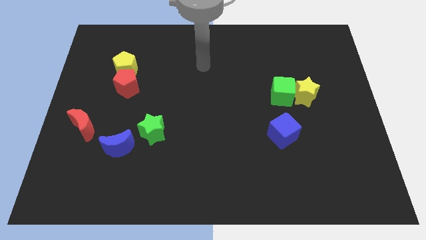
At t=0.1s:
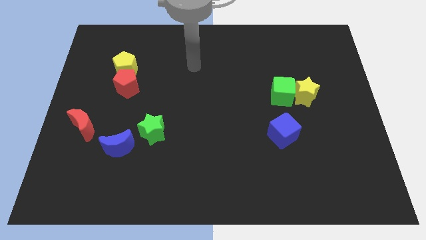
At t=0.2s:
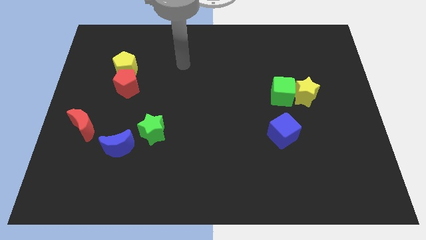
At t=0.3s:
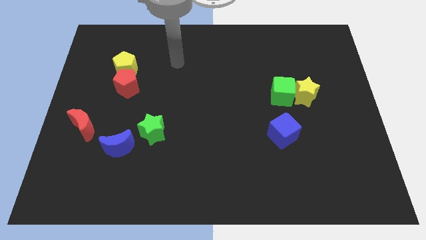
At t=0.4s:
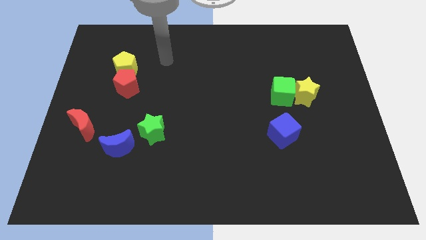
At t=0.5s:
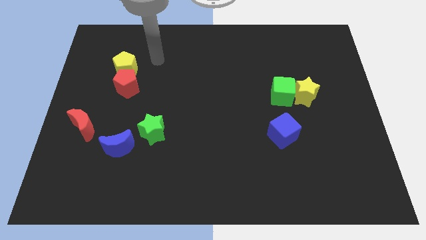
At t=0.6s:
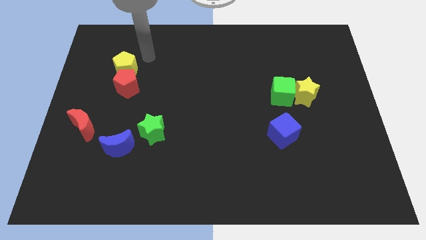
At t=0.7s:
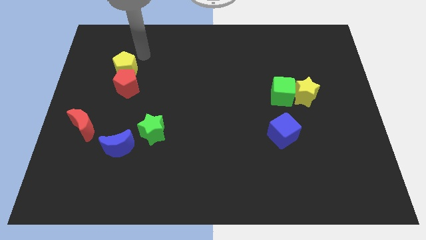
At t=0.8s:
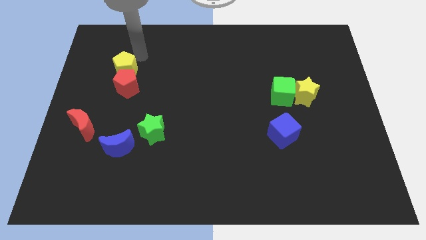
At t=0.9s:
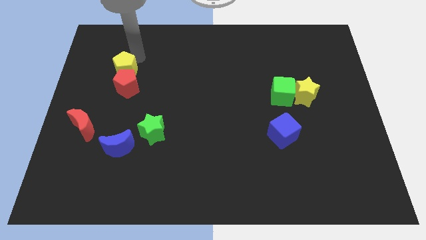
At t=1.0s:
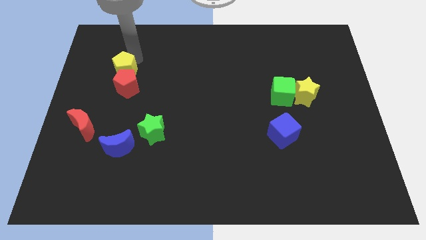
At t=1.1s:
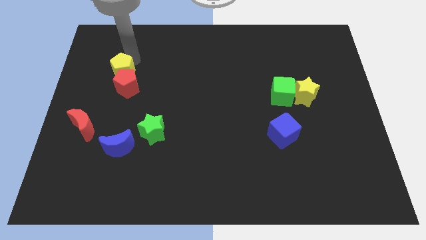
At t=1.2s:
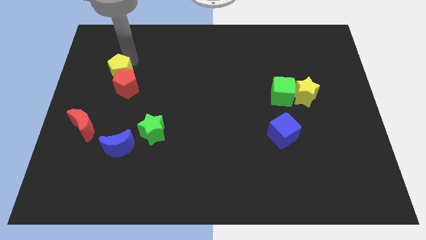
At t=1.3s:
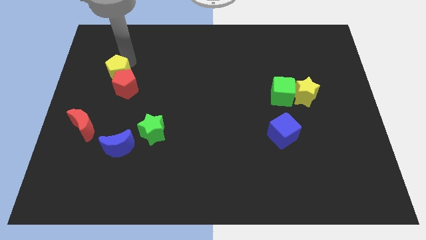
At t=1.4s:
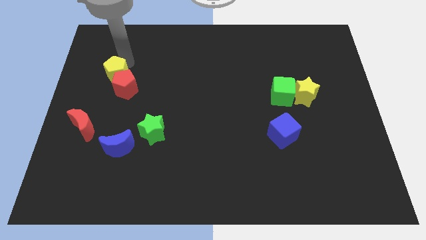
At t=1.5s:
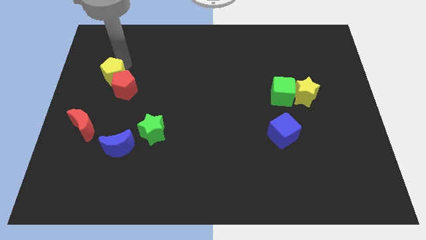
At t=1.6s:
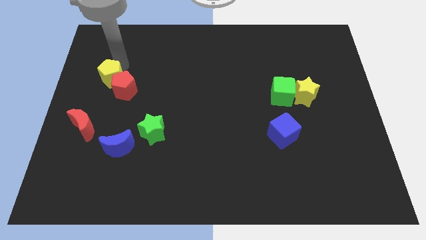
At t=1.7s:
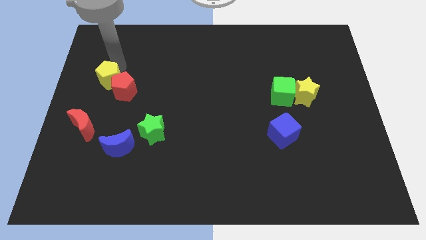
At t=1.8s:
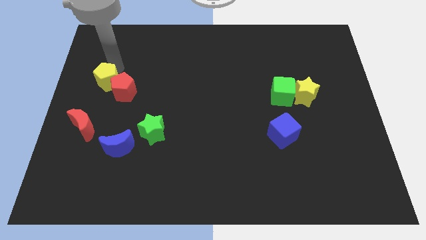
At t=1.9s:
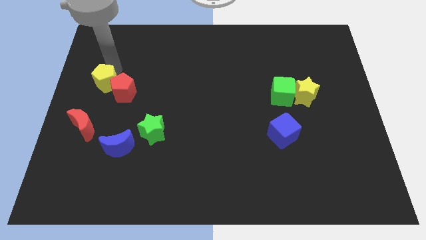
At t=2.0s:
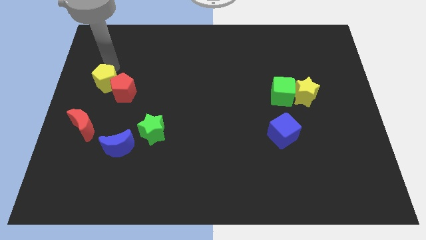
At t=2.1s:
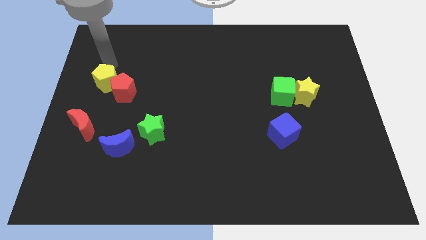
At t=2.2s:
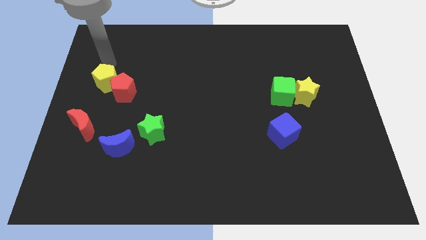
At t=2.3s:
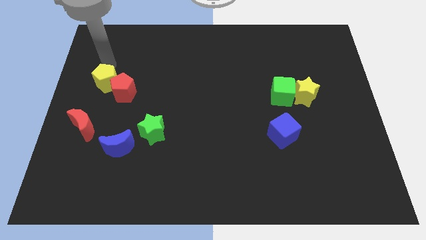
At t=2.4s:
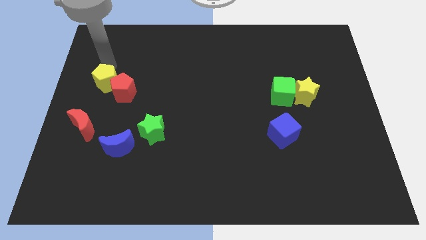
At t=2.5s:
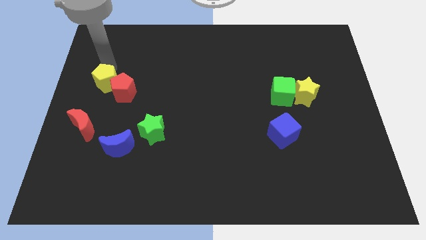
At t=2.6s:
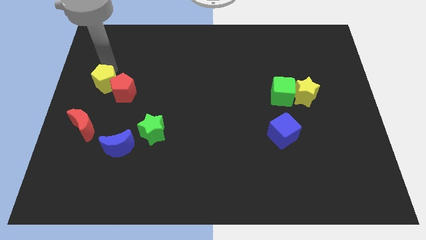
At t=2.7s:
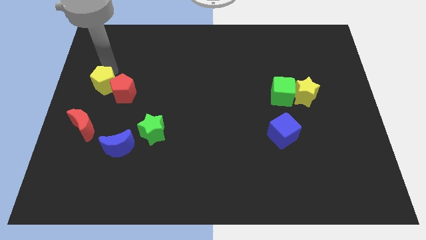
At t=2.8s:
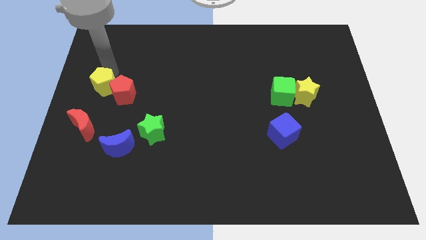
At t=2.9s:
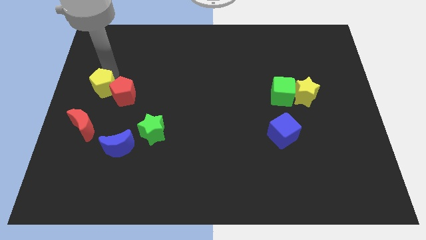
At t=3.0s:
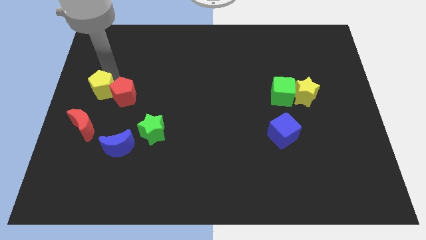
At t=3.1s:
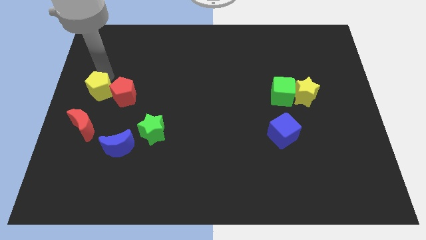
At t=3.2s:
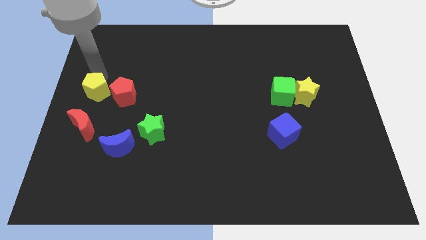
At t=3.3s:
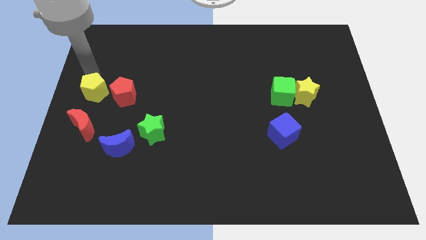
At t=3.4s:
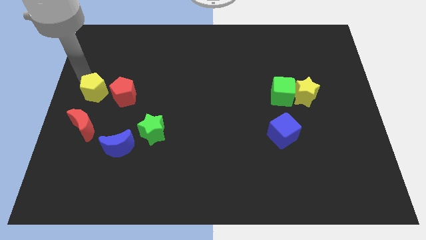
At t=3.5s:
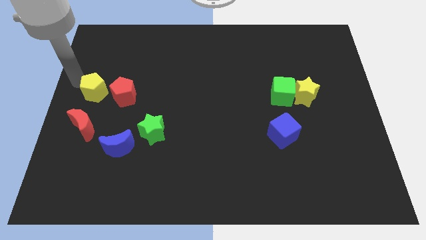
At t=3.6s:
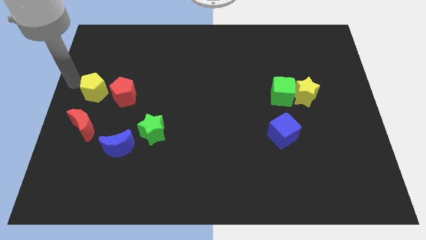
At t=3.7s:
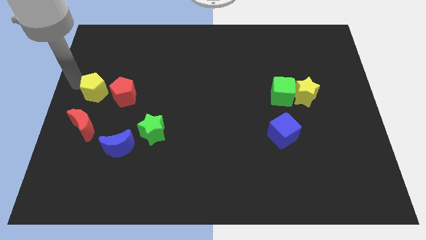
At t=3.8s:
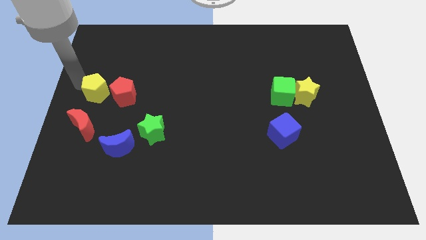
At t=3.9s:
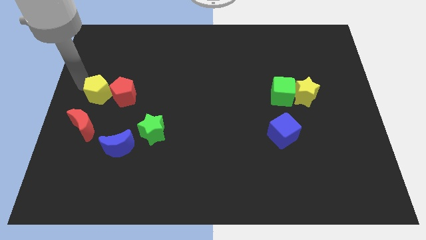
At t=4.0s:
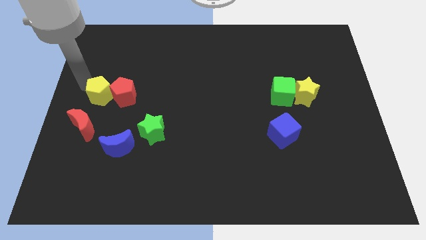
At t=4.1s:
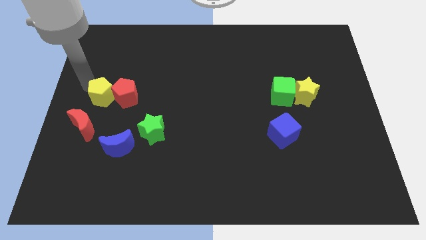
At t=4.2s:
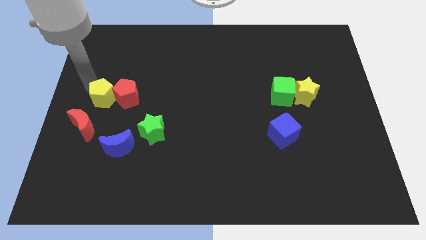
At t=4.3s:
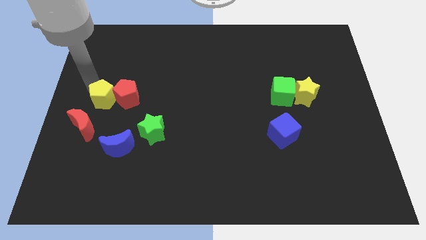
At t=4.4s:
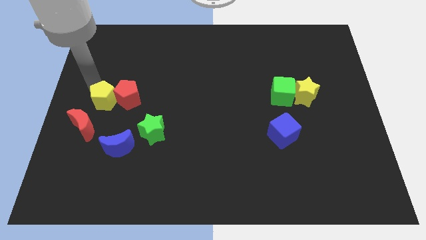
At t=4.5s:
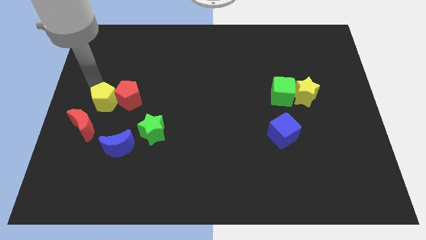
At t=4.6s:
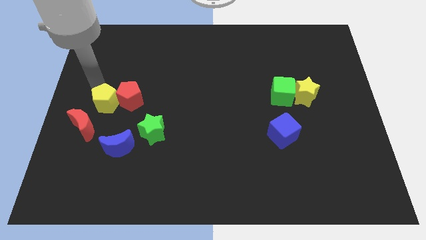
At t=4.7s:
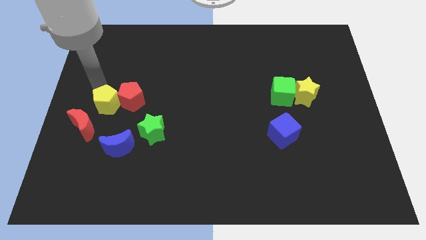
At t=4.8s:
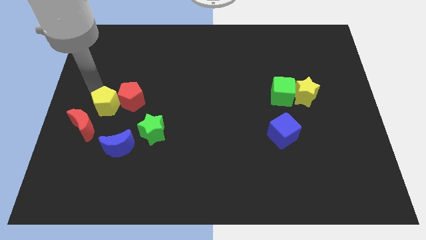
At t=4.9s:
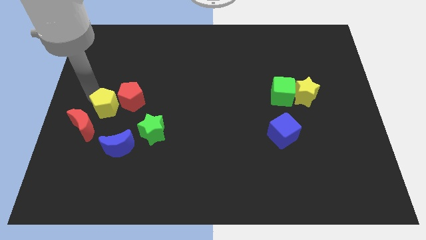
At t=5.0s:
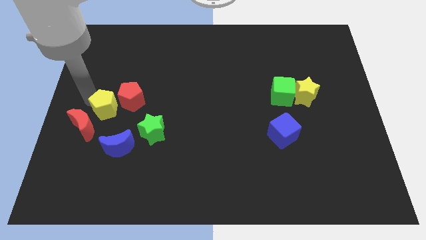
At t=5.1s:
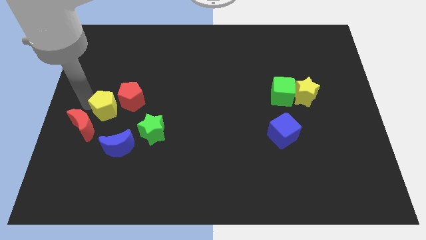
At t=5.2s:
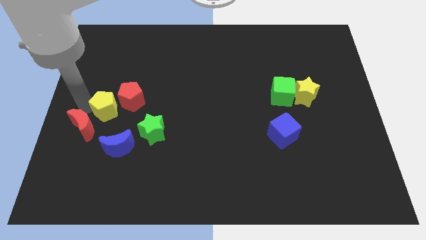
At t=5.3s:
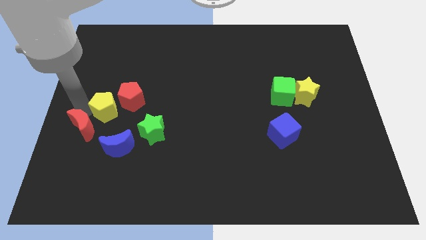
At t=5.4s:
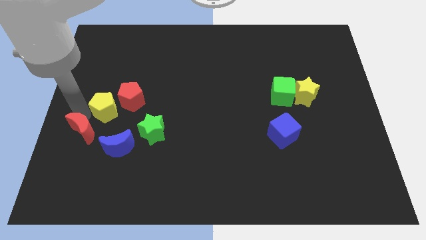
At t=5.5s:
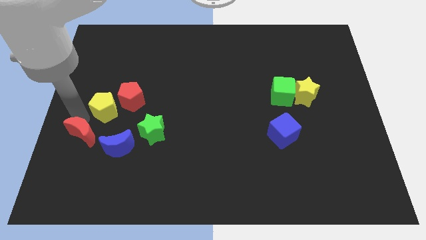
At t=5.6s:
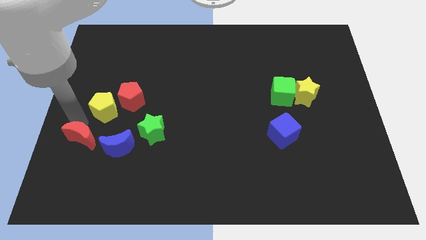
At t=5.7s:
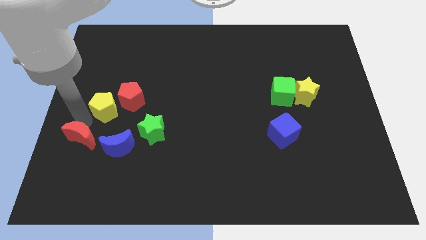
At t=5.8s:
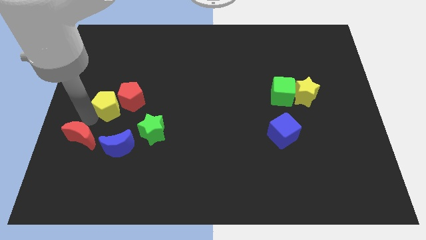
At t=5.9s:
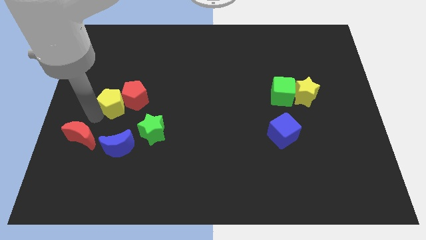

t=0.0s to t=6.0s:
move the yellow pentagon to the top left side of the green star

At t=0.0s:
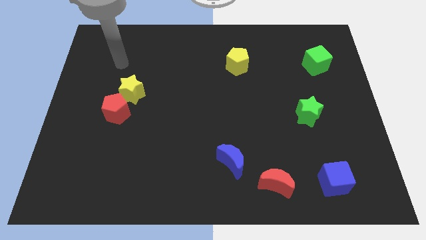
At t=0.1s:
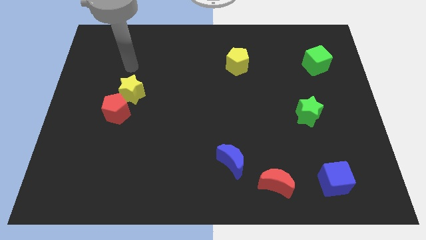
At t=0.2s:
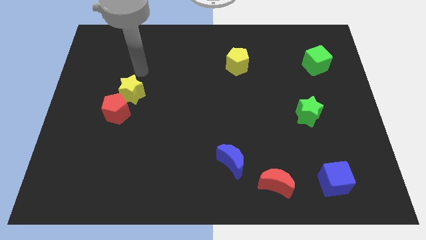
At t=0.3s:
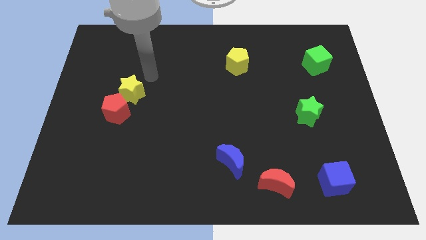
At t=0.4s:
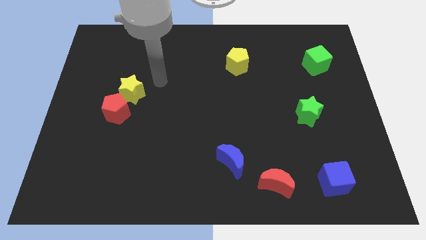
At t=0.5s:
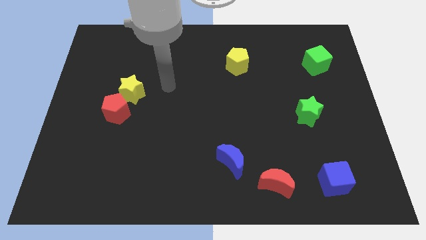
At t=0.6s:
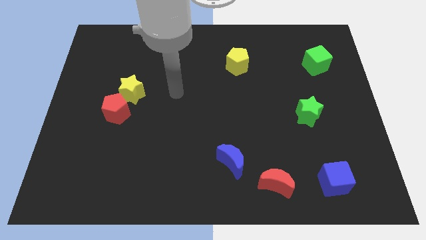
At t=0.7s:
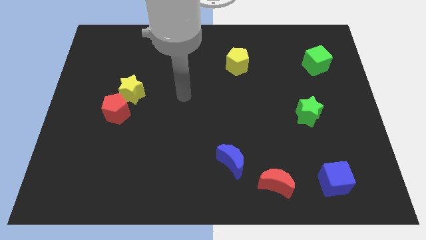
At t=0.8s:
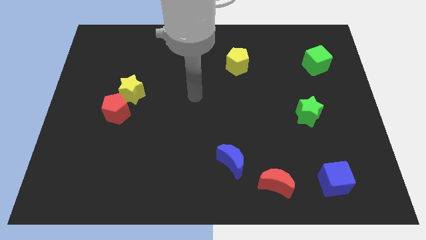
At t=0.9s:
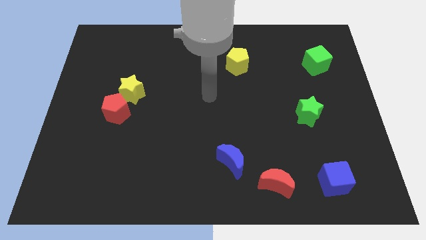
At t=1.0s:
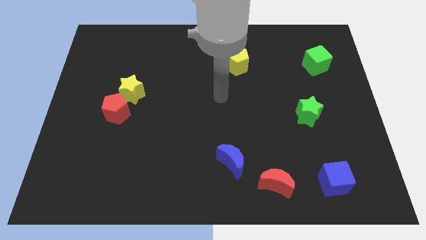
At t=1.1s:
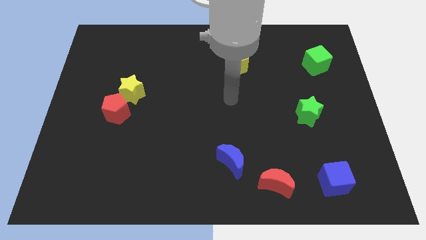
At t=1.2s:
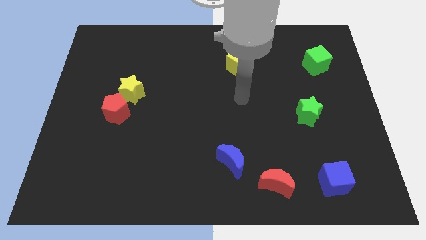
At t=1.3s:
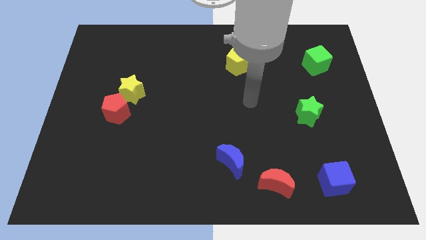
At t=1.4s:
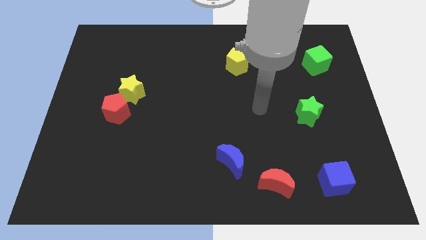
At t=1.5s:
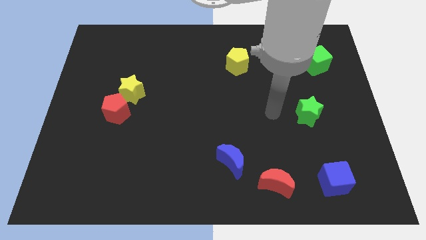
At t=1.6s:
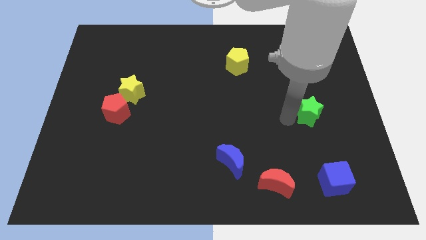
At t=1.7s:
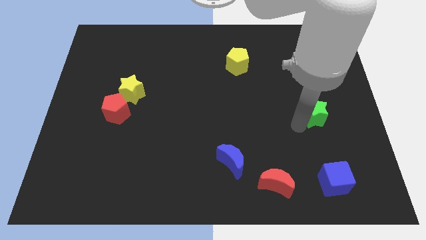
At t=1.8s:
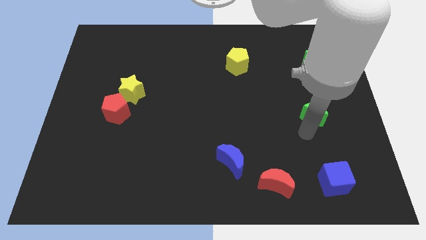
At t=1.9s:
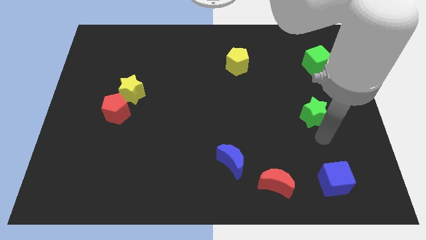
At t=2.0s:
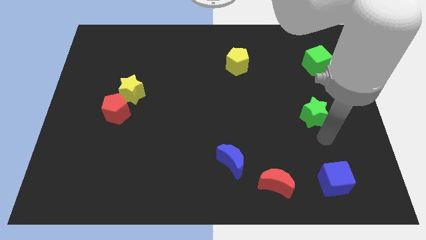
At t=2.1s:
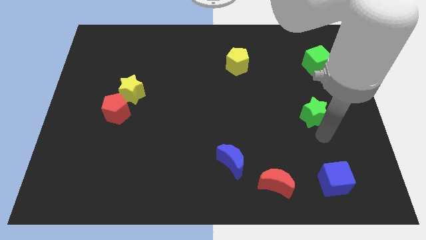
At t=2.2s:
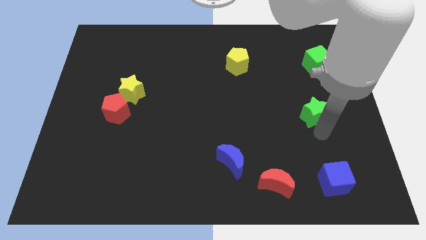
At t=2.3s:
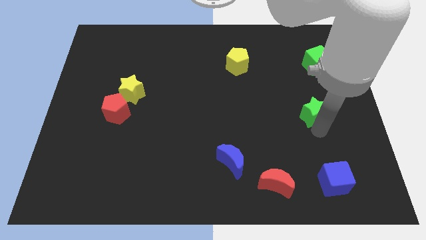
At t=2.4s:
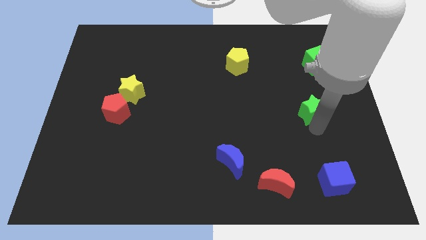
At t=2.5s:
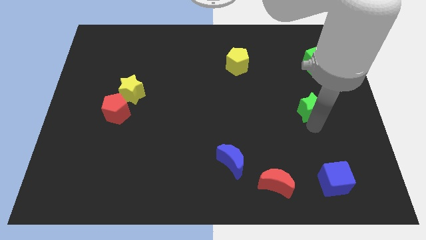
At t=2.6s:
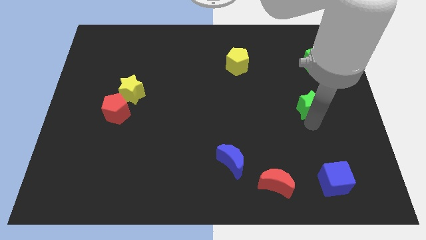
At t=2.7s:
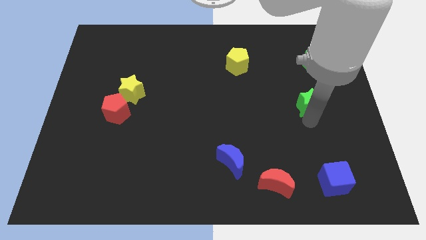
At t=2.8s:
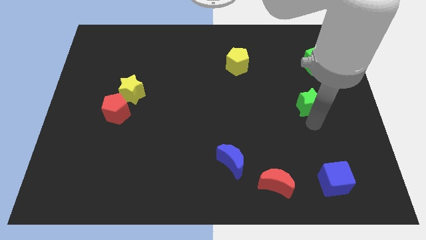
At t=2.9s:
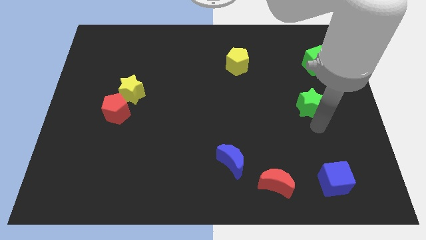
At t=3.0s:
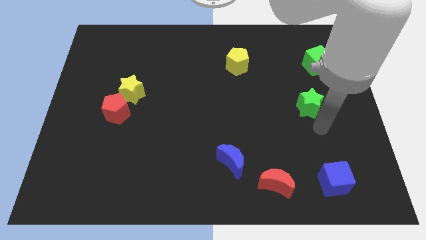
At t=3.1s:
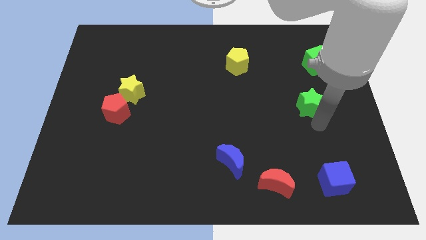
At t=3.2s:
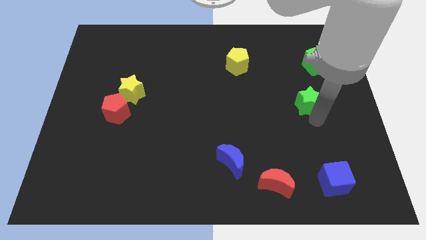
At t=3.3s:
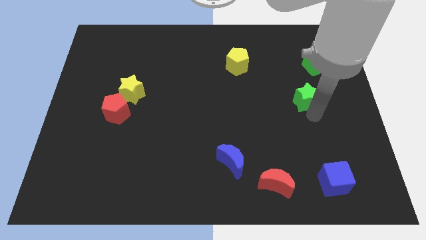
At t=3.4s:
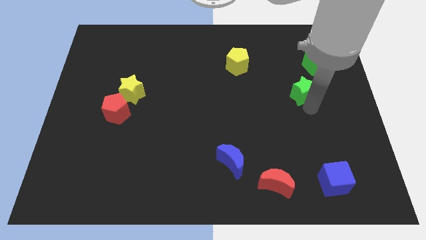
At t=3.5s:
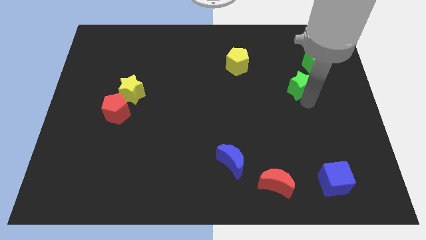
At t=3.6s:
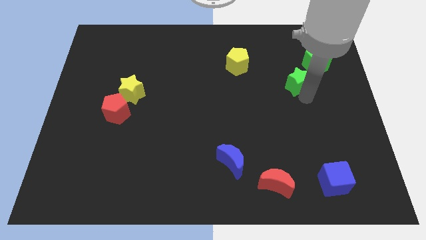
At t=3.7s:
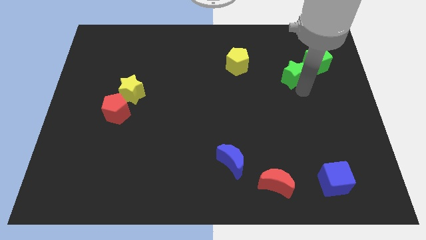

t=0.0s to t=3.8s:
move the green star to the right of the yellow pentagon
